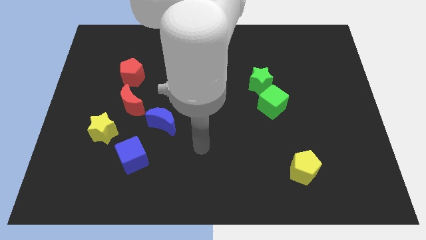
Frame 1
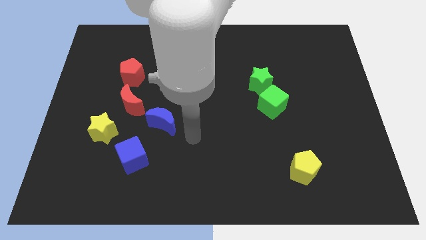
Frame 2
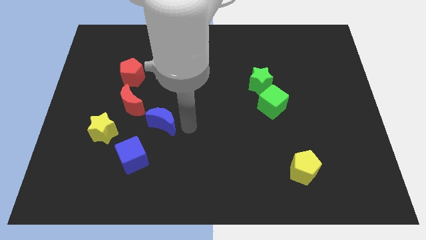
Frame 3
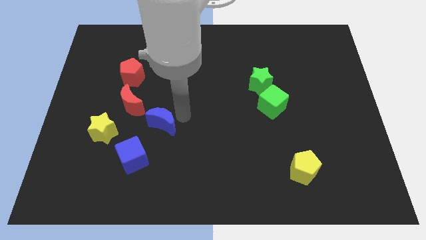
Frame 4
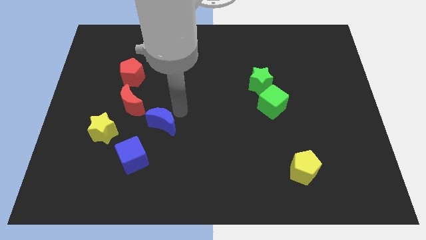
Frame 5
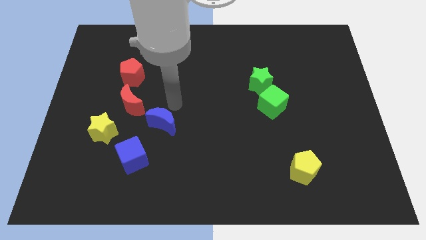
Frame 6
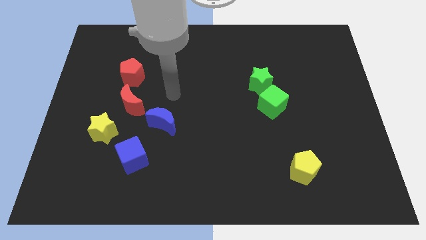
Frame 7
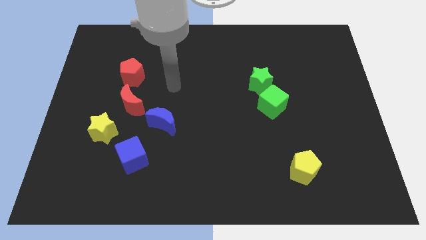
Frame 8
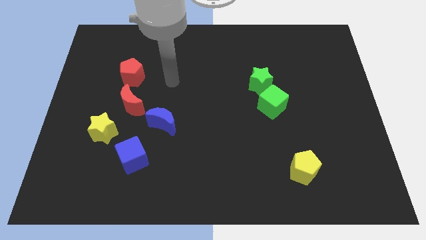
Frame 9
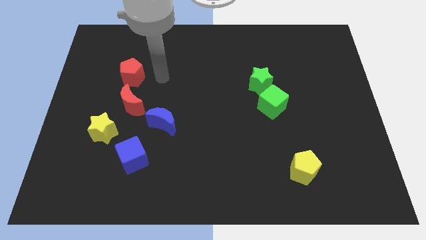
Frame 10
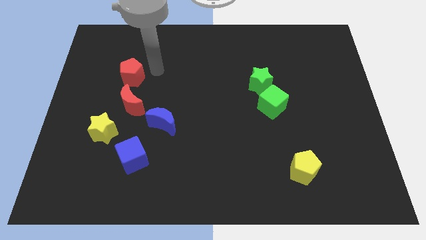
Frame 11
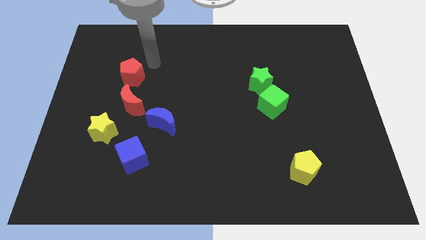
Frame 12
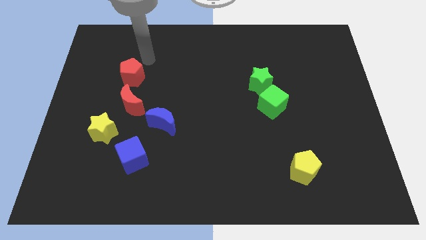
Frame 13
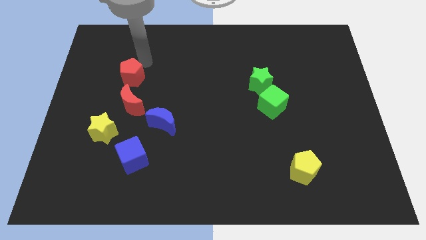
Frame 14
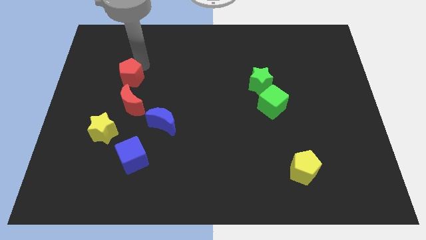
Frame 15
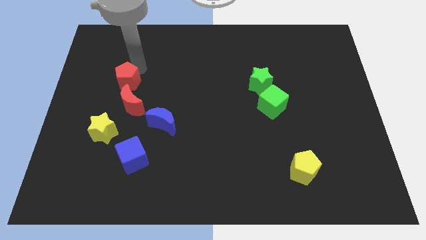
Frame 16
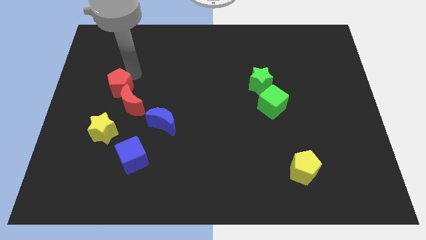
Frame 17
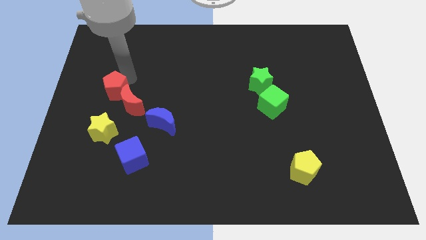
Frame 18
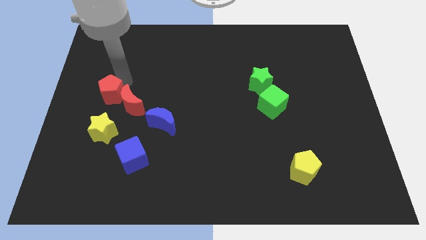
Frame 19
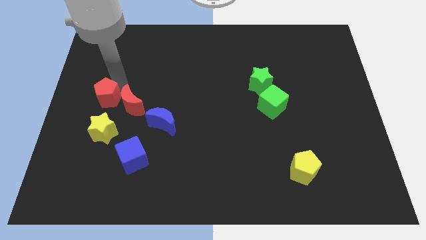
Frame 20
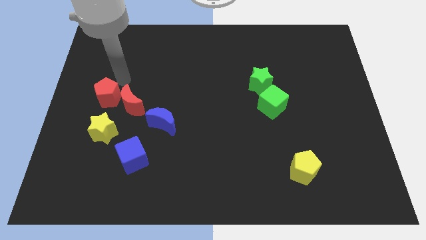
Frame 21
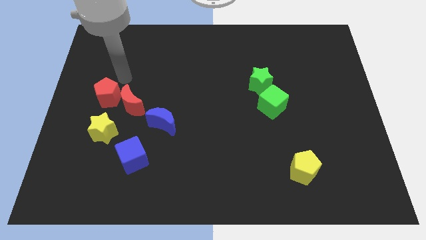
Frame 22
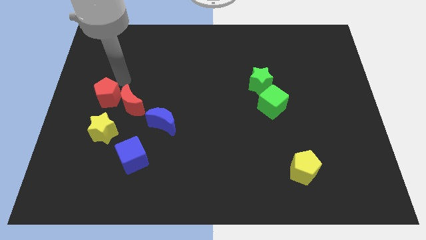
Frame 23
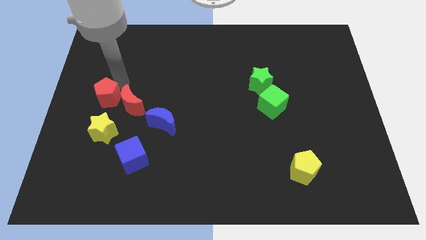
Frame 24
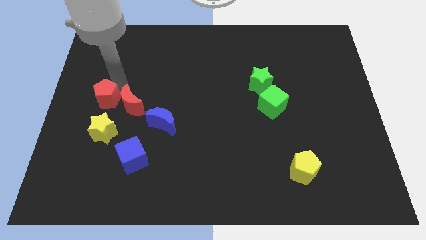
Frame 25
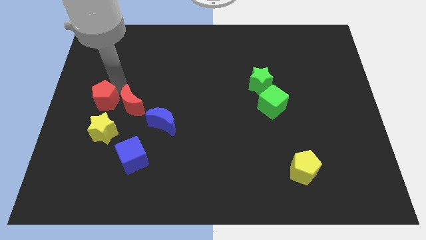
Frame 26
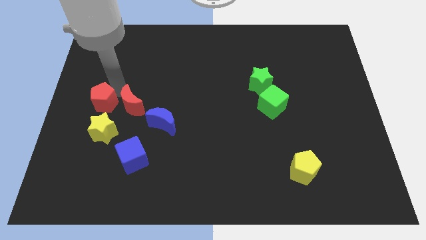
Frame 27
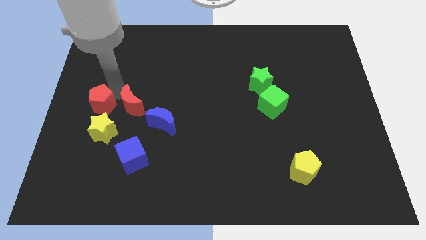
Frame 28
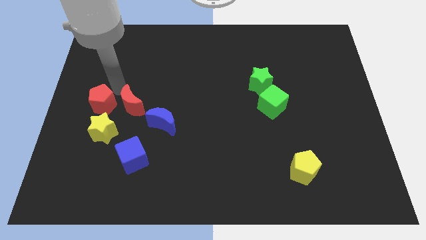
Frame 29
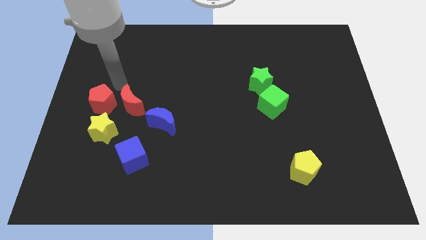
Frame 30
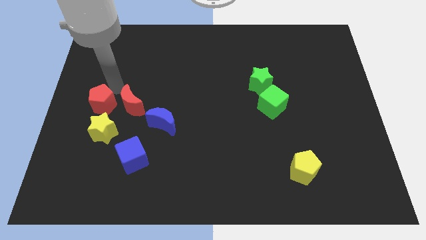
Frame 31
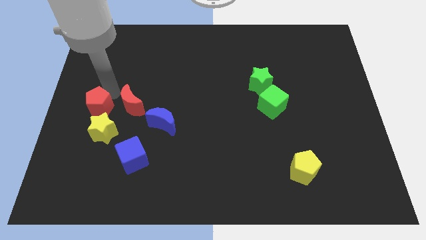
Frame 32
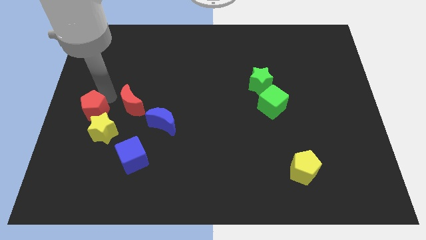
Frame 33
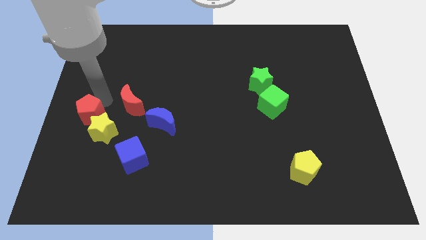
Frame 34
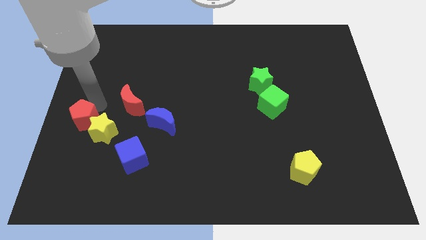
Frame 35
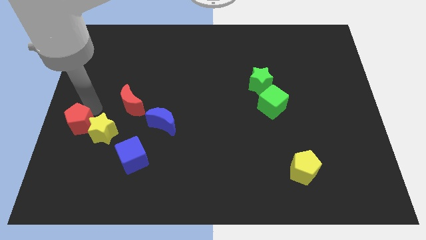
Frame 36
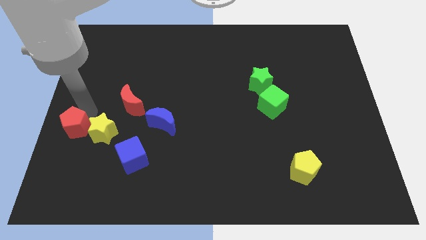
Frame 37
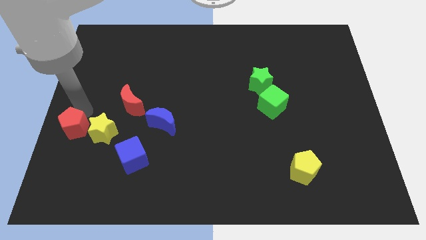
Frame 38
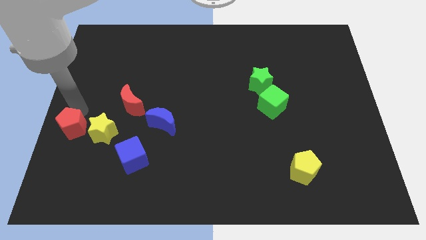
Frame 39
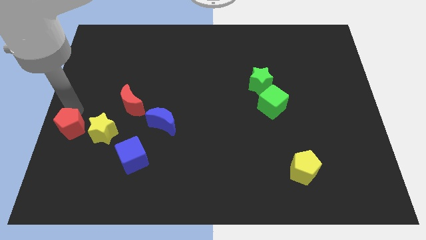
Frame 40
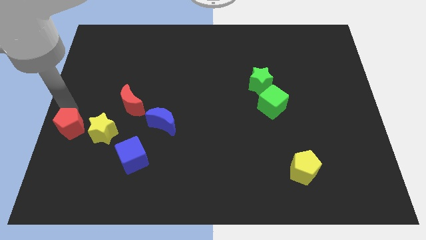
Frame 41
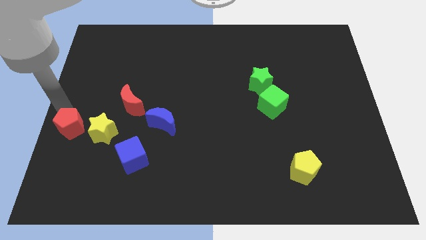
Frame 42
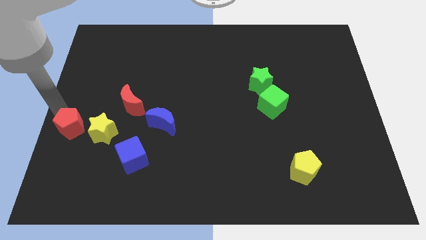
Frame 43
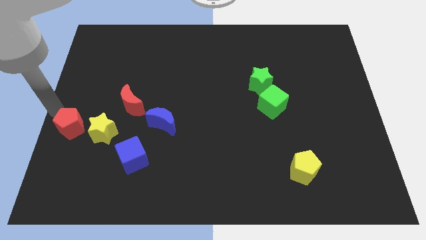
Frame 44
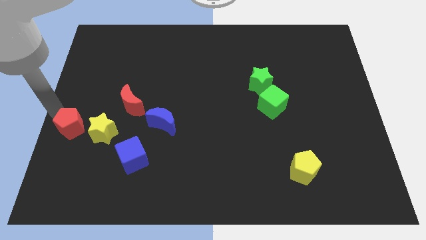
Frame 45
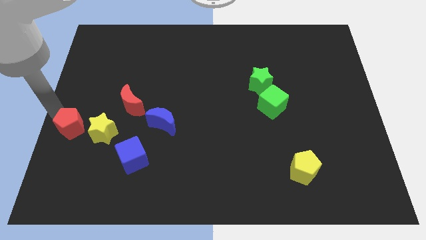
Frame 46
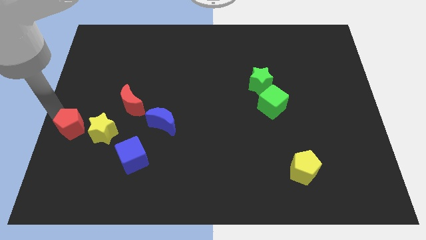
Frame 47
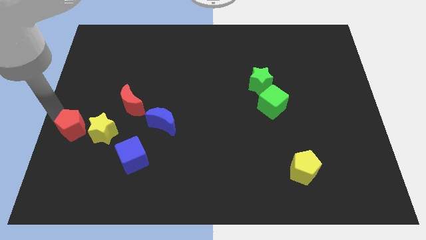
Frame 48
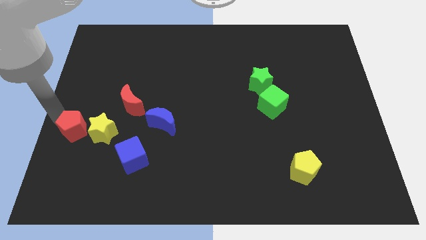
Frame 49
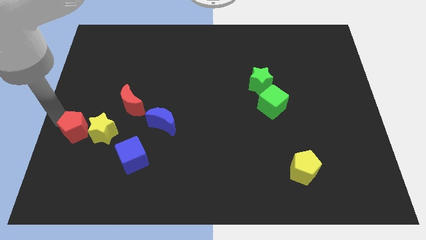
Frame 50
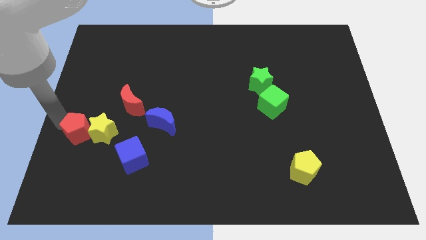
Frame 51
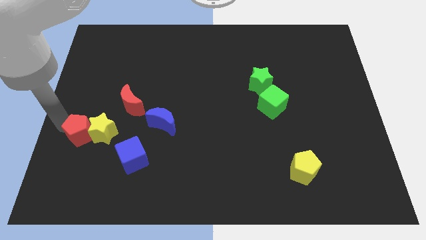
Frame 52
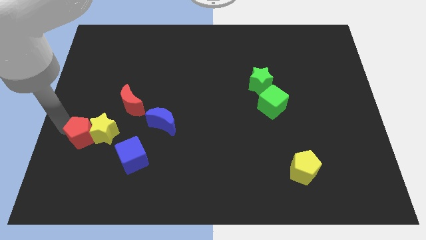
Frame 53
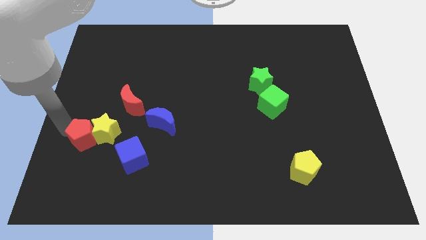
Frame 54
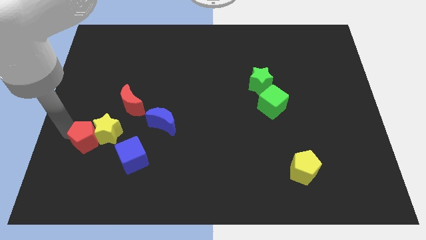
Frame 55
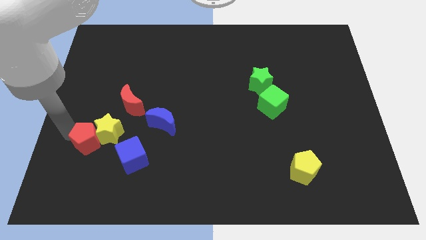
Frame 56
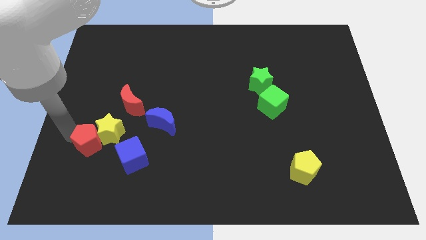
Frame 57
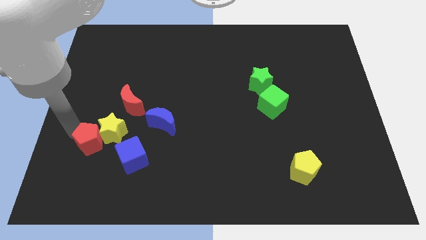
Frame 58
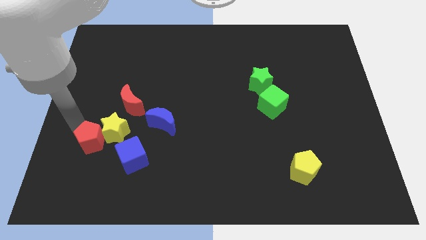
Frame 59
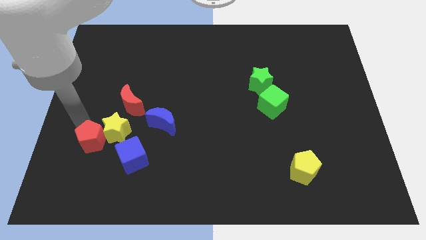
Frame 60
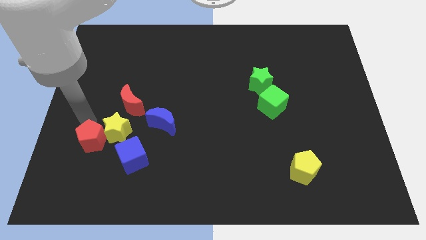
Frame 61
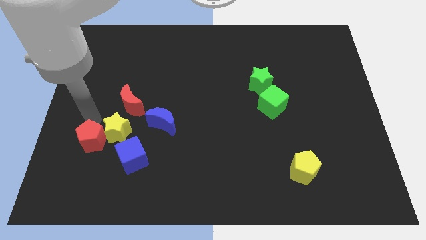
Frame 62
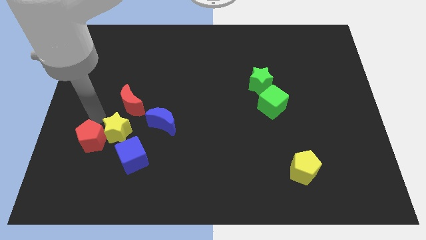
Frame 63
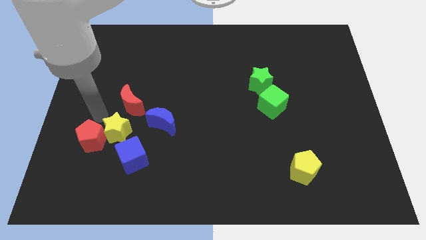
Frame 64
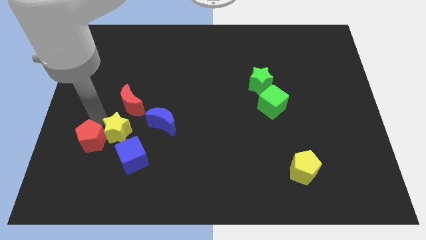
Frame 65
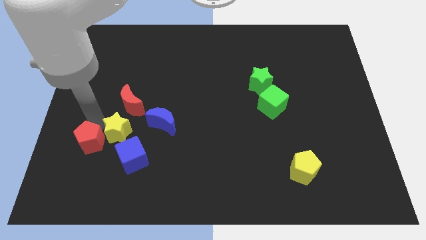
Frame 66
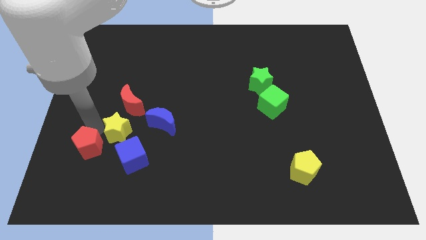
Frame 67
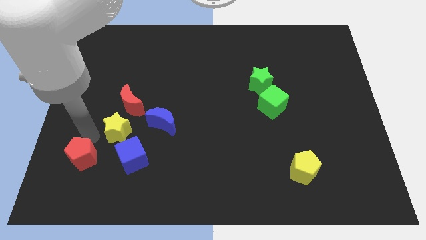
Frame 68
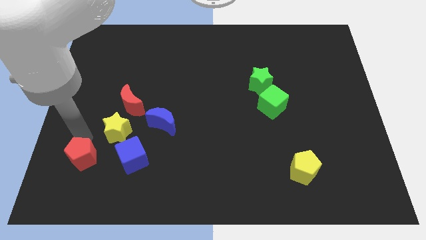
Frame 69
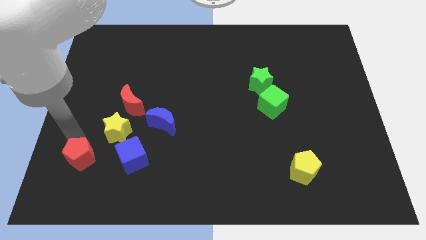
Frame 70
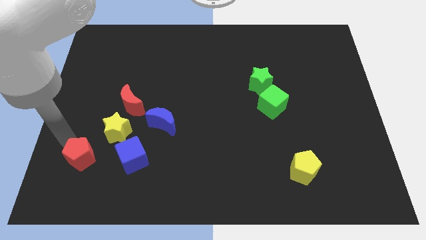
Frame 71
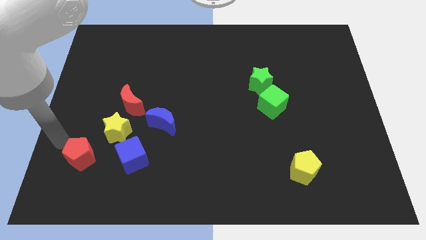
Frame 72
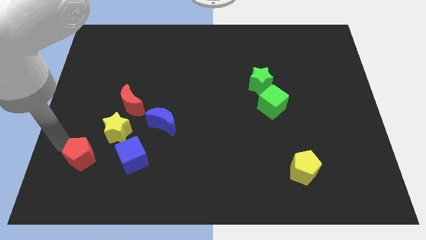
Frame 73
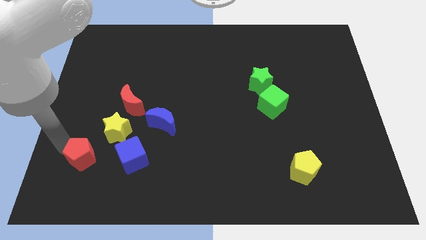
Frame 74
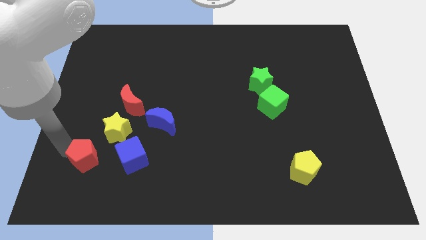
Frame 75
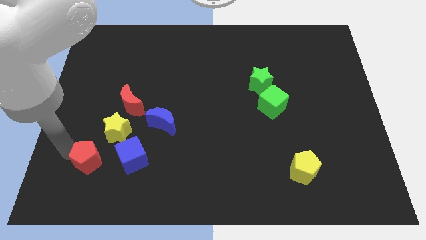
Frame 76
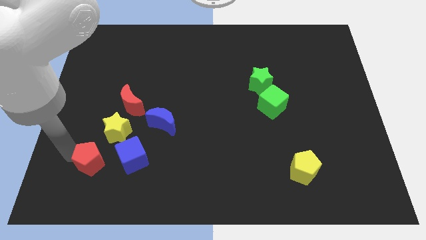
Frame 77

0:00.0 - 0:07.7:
move the red pentagon to the bottom side of the yellow star
